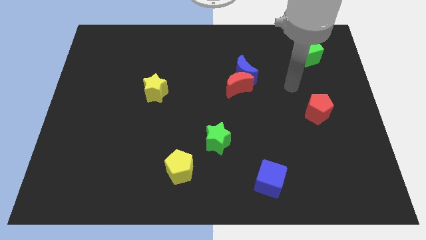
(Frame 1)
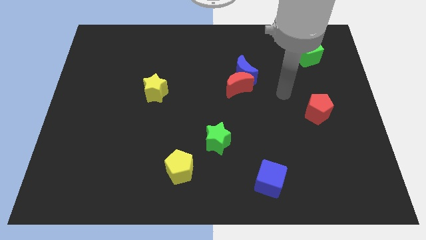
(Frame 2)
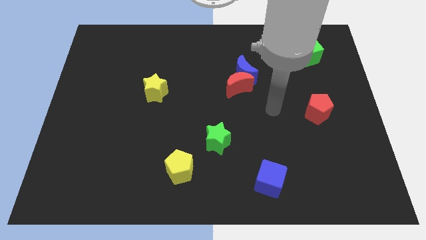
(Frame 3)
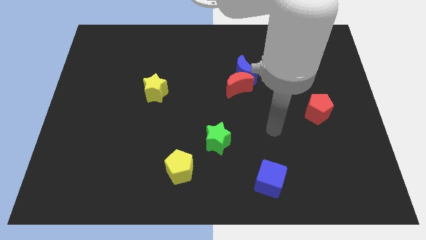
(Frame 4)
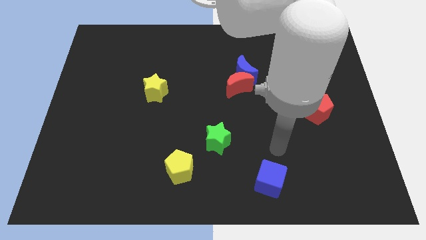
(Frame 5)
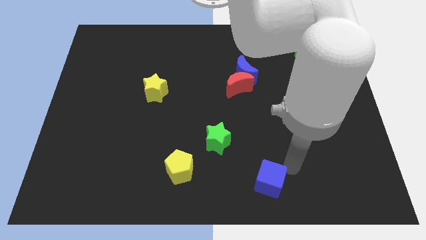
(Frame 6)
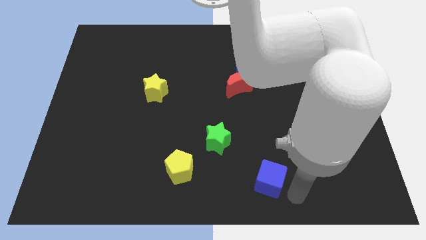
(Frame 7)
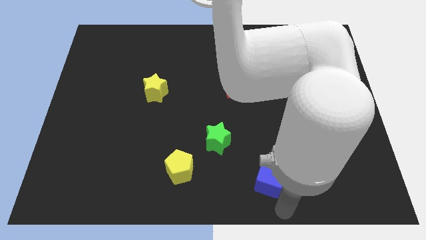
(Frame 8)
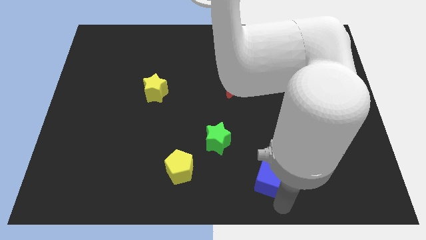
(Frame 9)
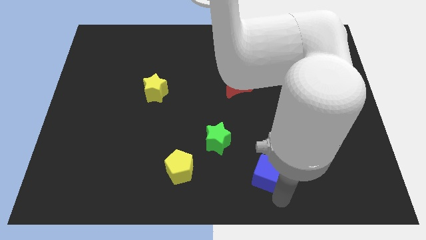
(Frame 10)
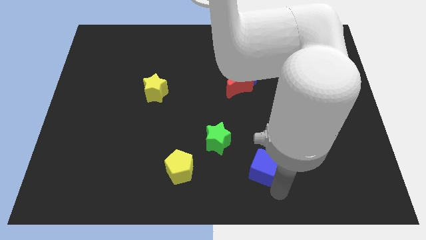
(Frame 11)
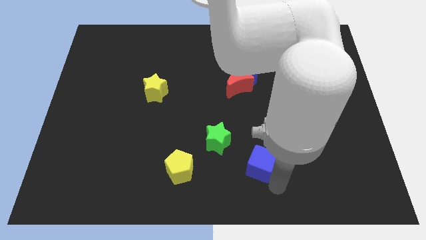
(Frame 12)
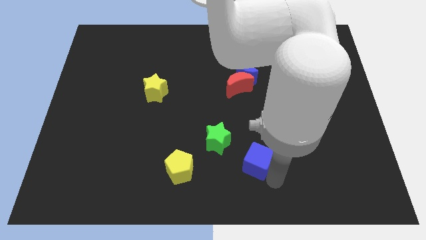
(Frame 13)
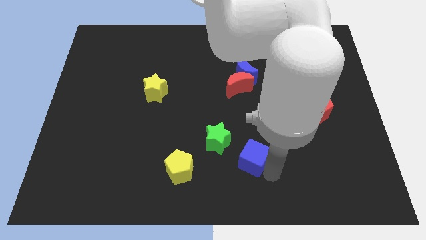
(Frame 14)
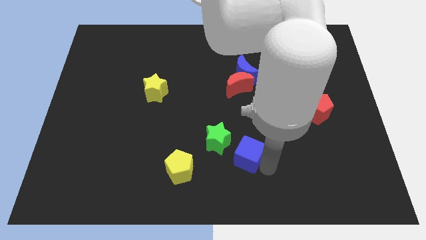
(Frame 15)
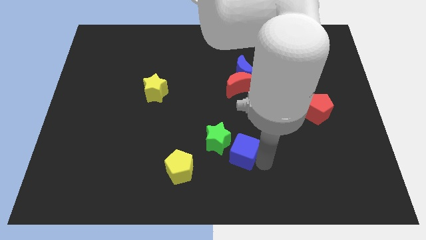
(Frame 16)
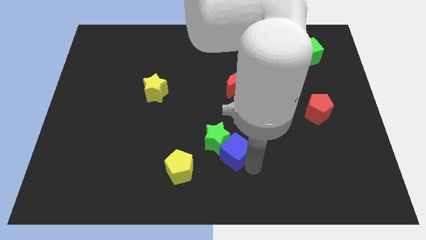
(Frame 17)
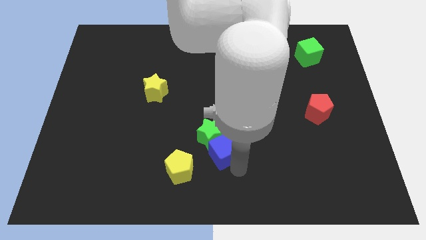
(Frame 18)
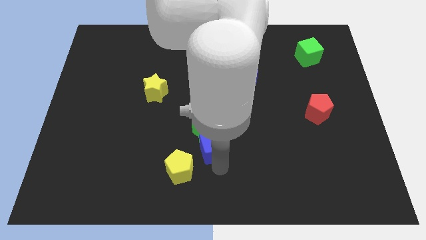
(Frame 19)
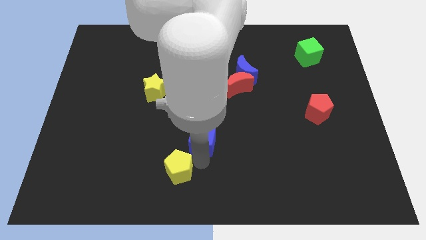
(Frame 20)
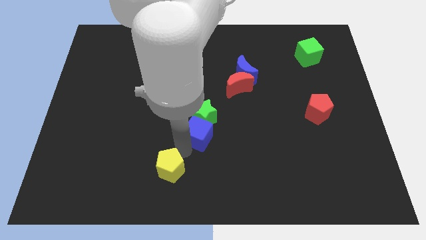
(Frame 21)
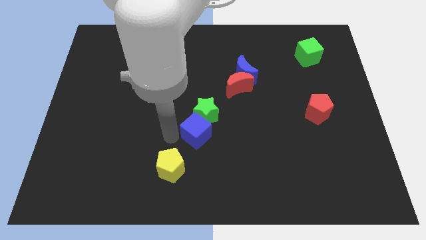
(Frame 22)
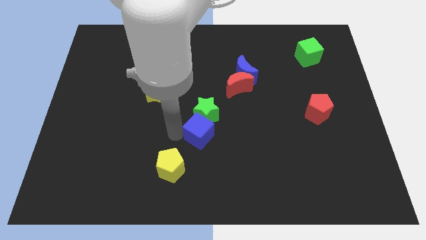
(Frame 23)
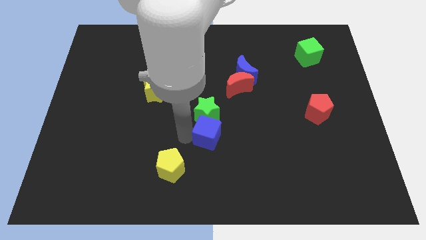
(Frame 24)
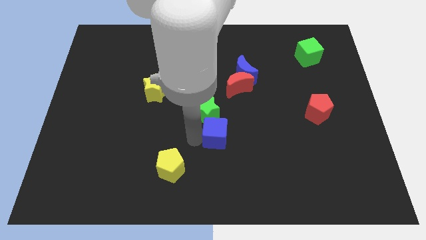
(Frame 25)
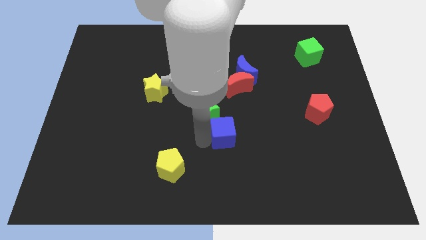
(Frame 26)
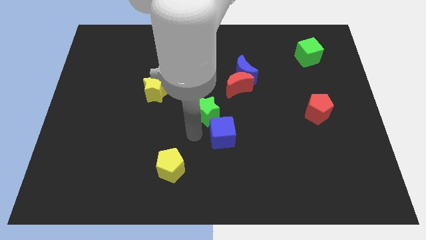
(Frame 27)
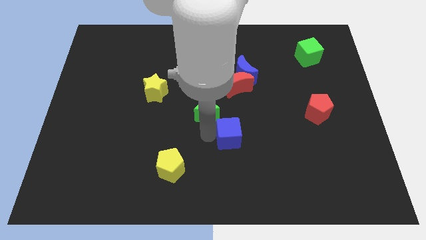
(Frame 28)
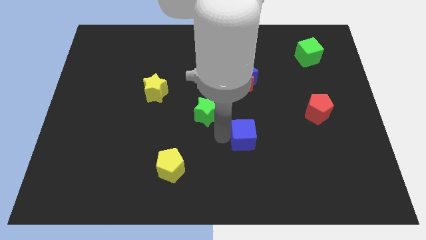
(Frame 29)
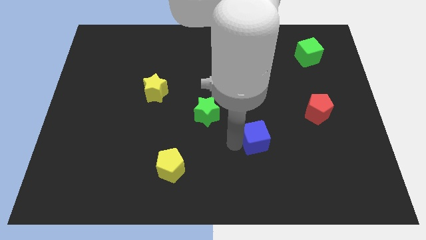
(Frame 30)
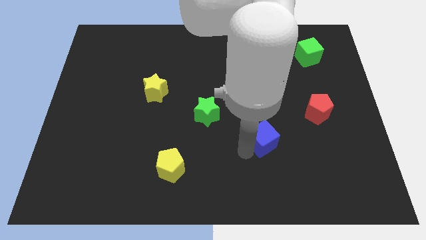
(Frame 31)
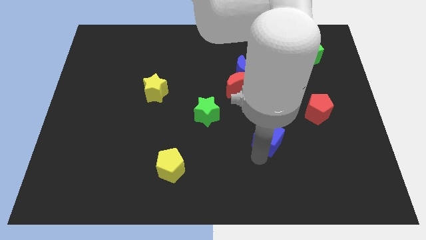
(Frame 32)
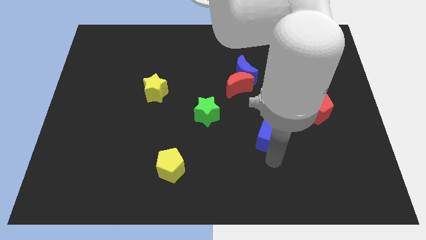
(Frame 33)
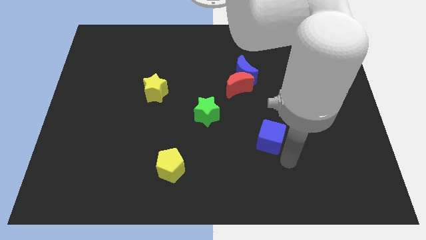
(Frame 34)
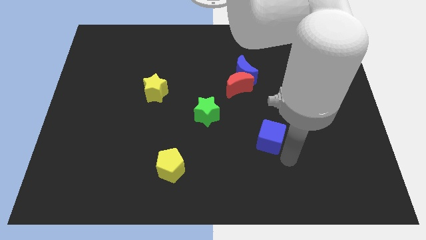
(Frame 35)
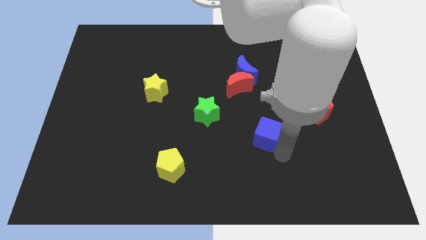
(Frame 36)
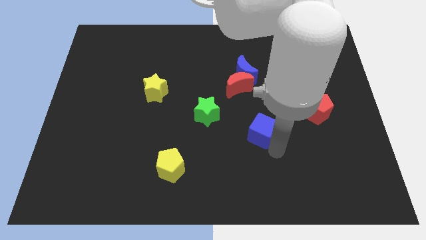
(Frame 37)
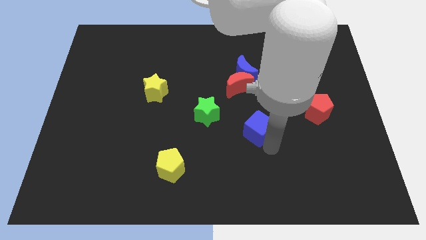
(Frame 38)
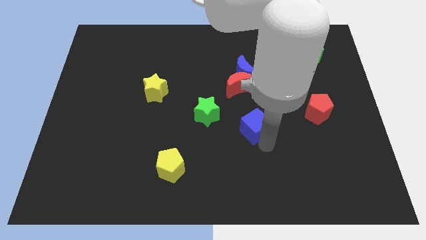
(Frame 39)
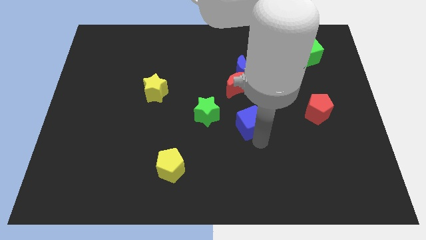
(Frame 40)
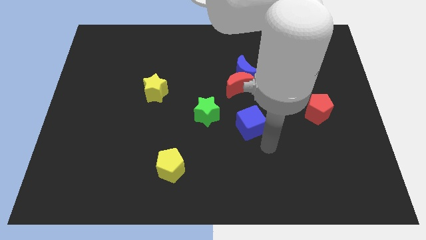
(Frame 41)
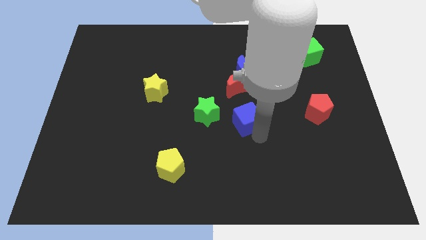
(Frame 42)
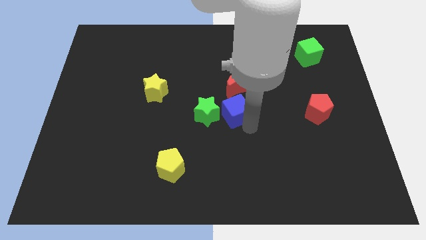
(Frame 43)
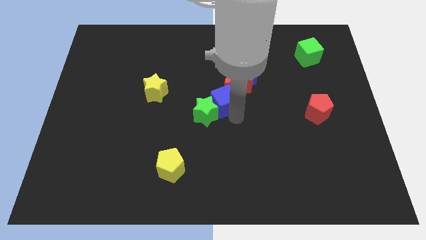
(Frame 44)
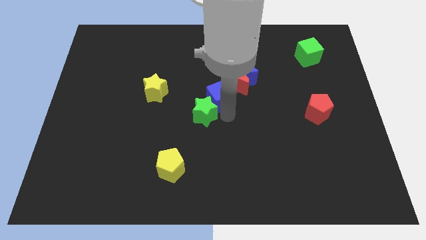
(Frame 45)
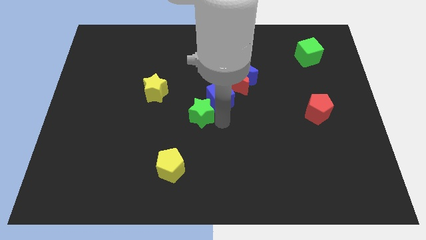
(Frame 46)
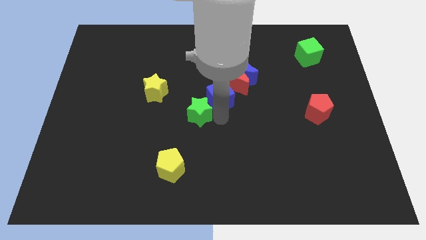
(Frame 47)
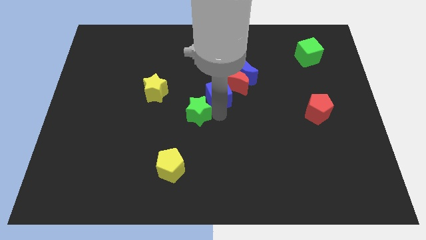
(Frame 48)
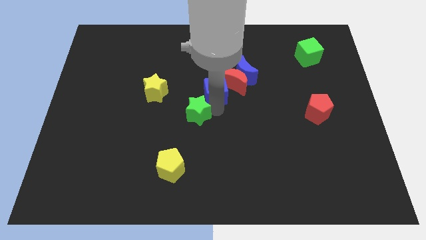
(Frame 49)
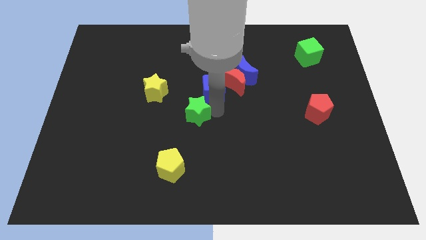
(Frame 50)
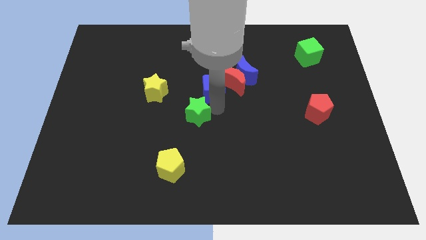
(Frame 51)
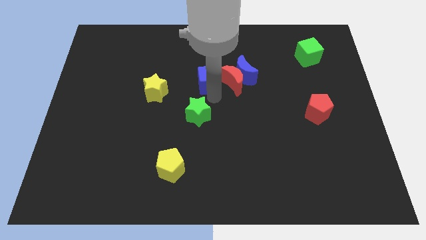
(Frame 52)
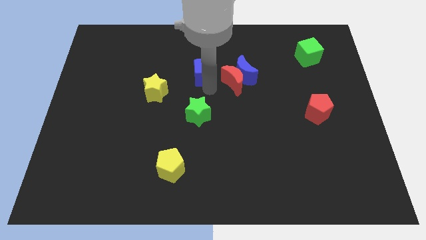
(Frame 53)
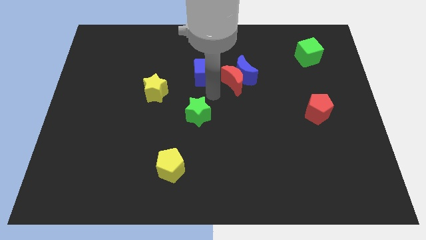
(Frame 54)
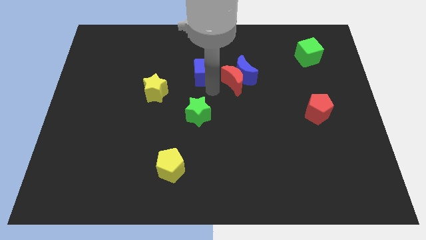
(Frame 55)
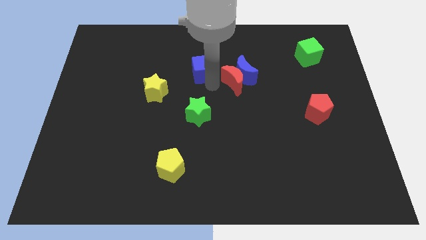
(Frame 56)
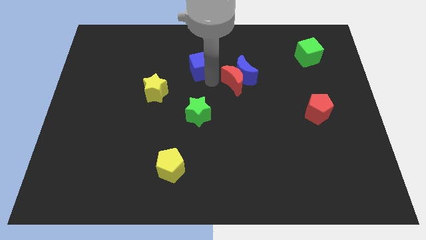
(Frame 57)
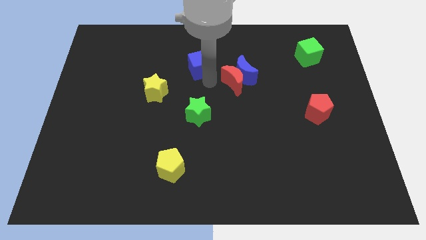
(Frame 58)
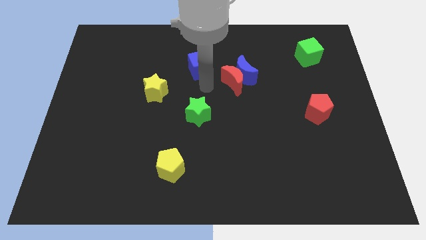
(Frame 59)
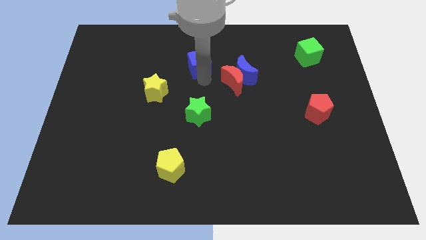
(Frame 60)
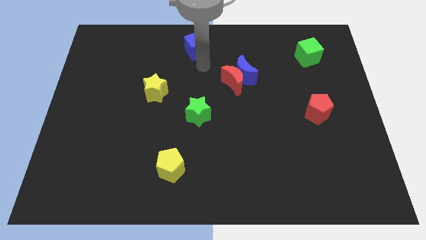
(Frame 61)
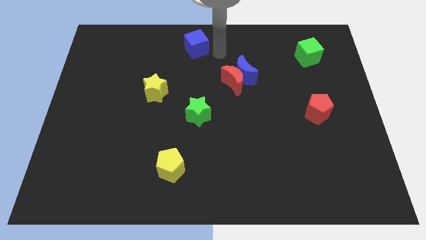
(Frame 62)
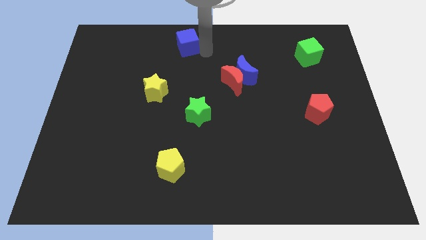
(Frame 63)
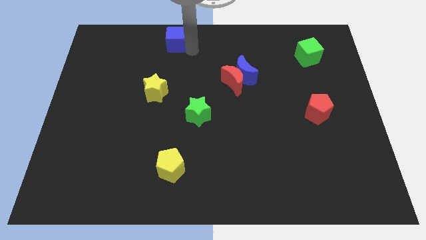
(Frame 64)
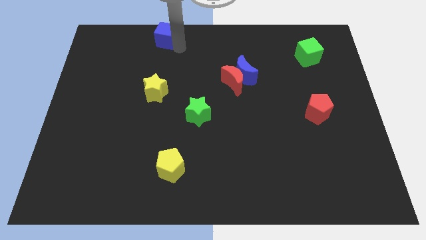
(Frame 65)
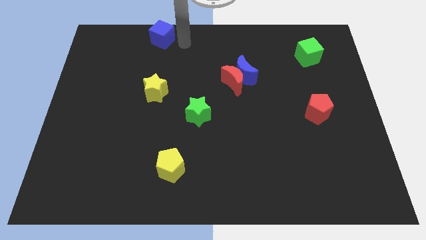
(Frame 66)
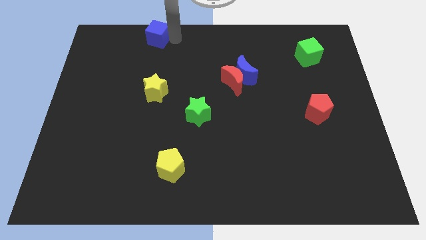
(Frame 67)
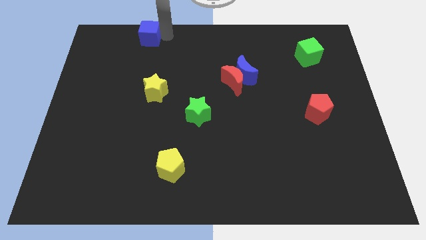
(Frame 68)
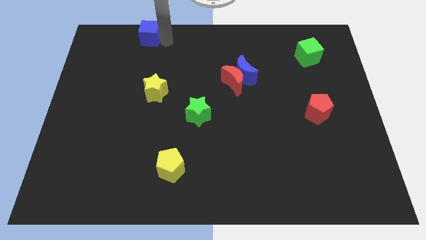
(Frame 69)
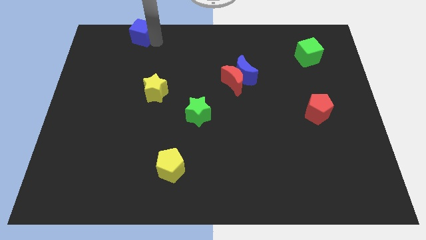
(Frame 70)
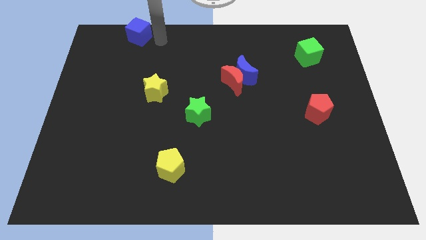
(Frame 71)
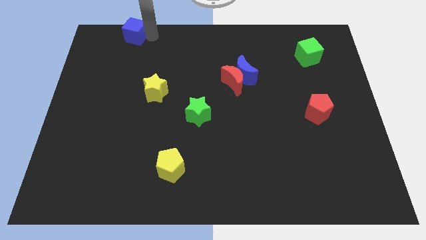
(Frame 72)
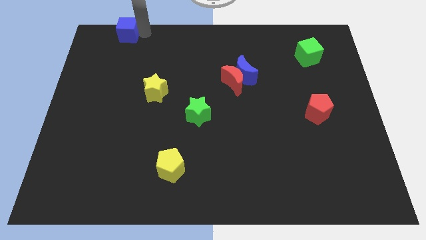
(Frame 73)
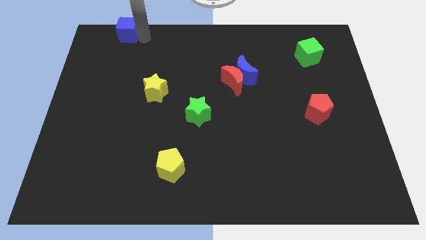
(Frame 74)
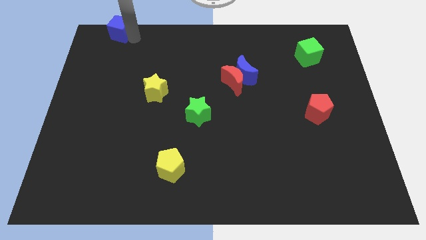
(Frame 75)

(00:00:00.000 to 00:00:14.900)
move the blue cube to the top left of the board
